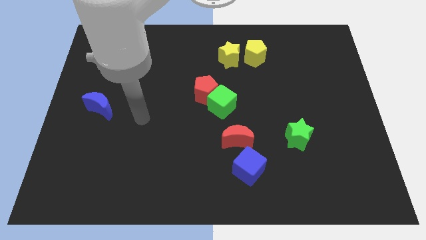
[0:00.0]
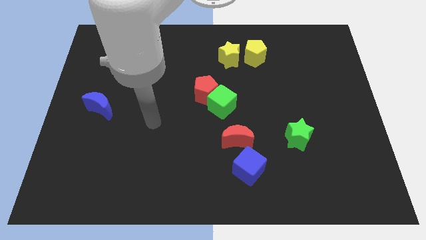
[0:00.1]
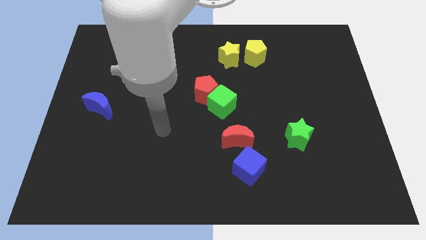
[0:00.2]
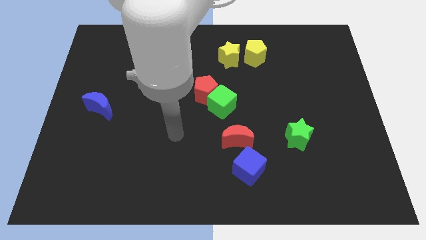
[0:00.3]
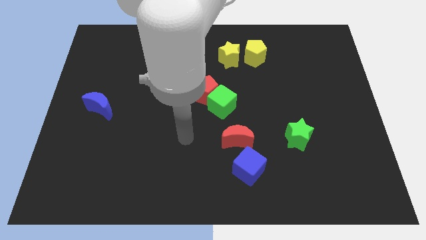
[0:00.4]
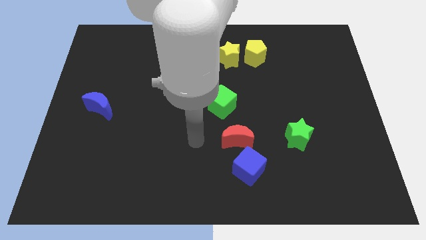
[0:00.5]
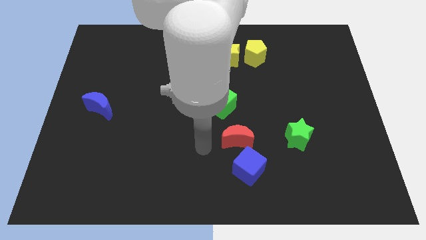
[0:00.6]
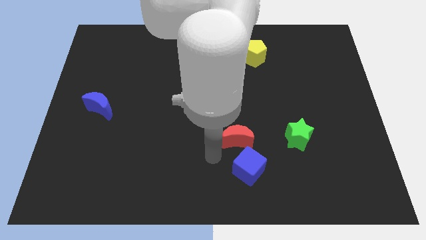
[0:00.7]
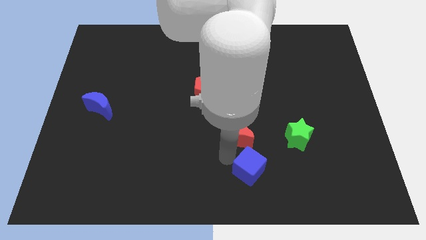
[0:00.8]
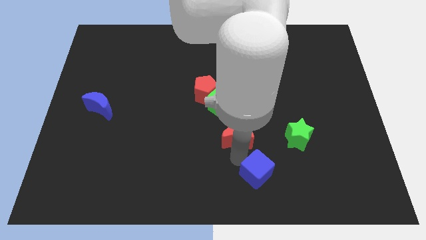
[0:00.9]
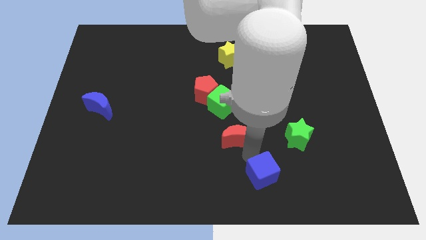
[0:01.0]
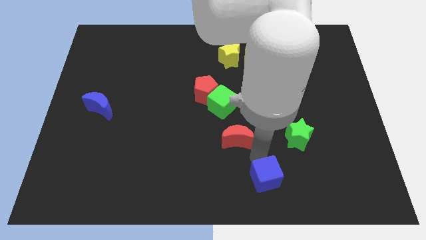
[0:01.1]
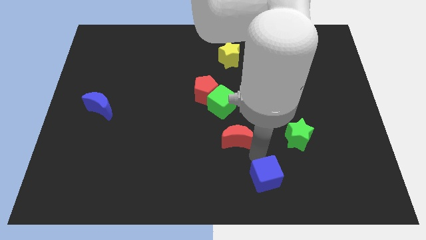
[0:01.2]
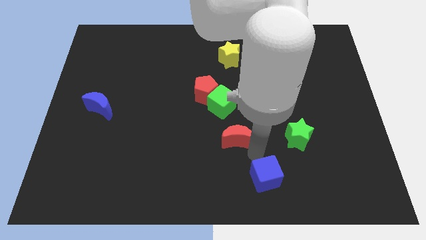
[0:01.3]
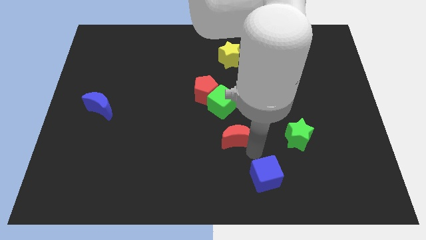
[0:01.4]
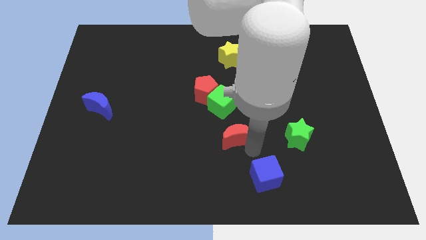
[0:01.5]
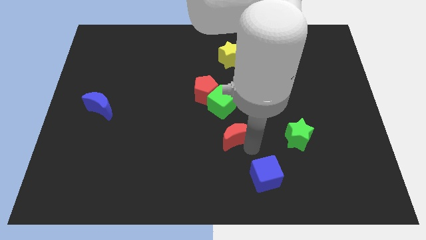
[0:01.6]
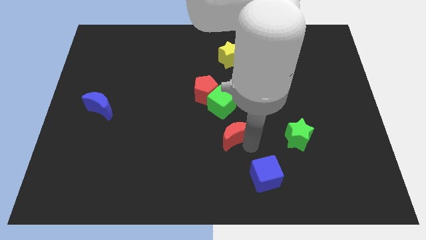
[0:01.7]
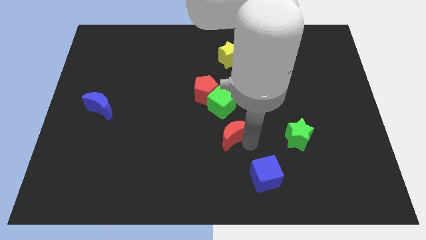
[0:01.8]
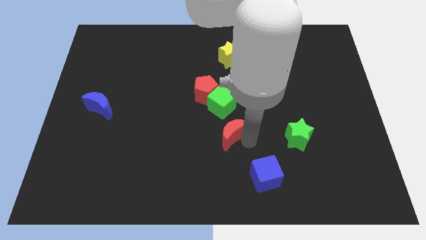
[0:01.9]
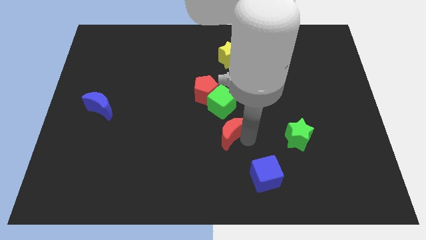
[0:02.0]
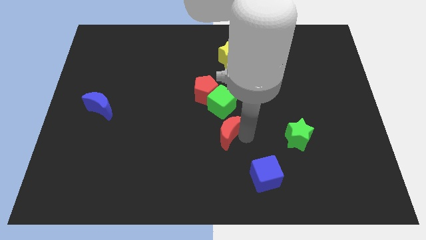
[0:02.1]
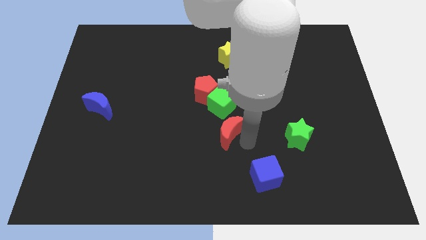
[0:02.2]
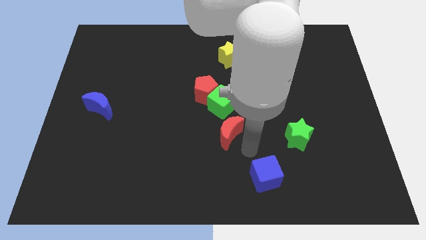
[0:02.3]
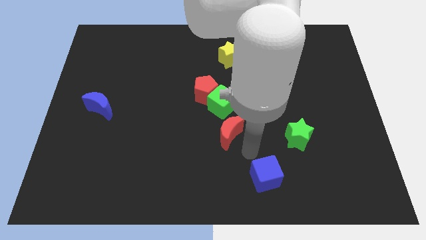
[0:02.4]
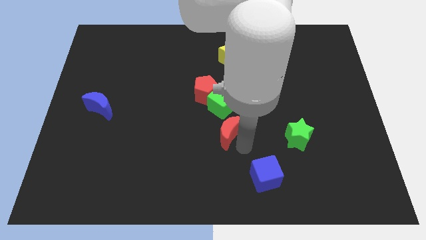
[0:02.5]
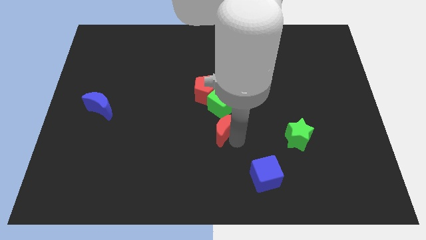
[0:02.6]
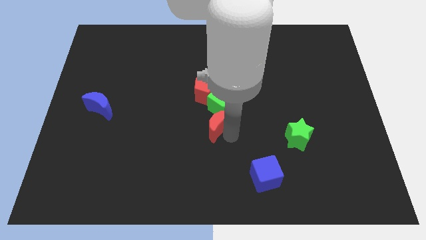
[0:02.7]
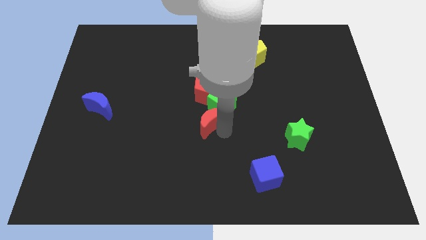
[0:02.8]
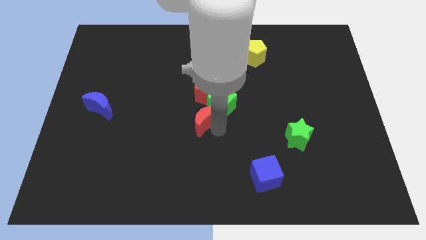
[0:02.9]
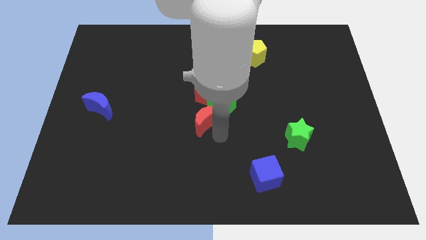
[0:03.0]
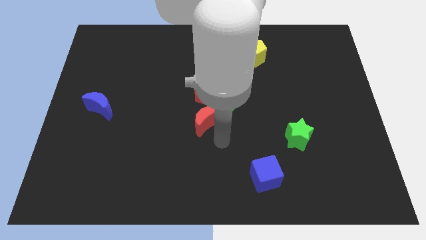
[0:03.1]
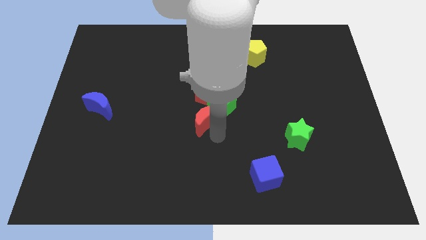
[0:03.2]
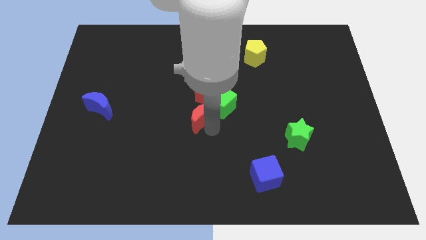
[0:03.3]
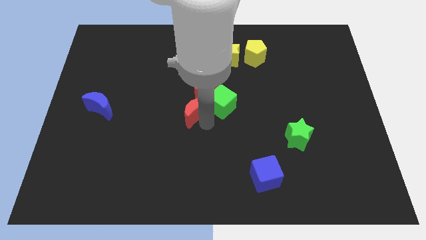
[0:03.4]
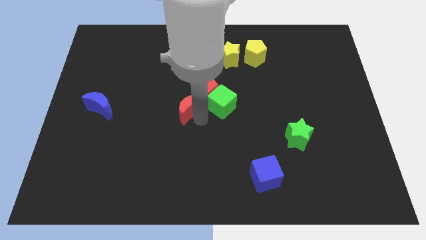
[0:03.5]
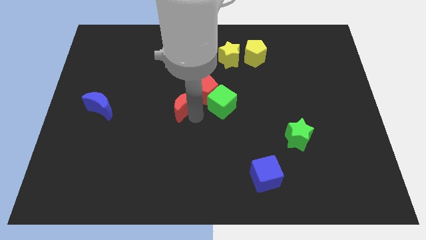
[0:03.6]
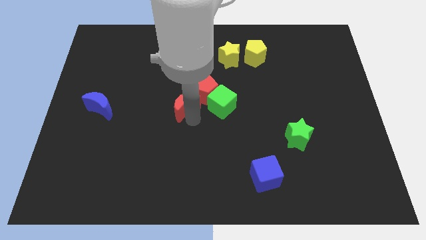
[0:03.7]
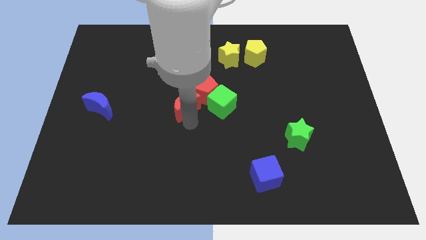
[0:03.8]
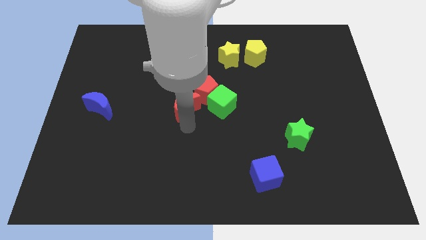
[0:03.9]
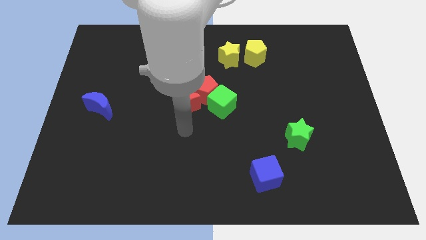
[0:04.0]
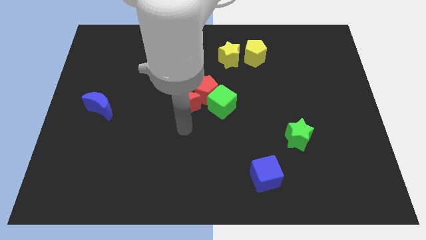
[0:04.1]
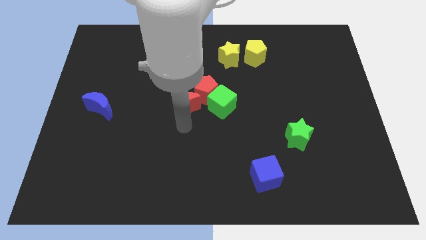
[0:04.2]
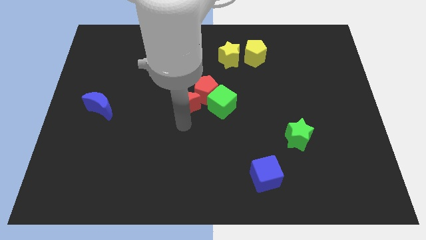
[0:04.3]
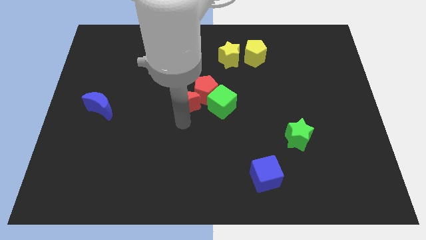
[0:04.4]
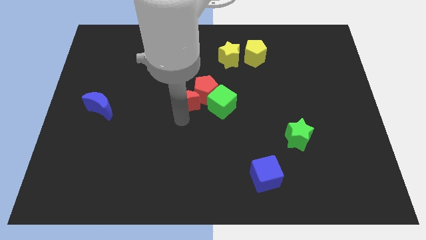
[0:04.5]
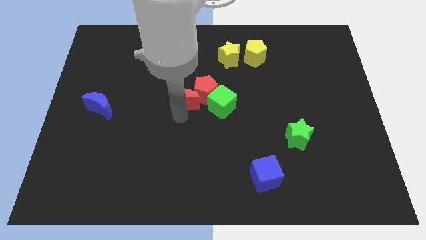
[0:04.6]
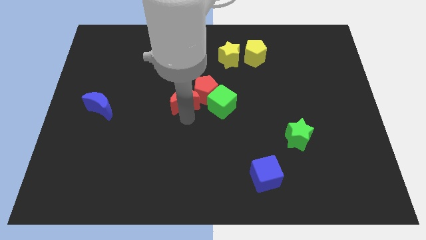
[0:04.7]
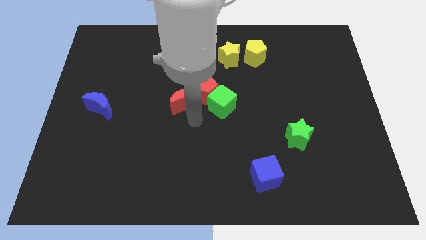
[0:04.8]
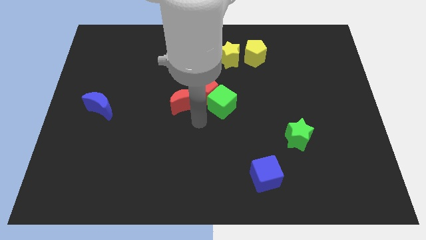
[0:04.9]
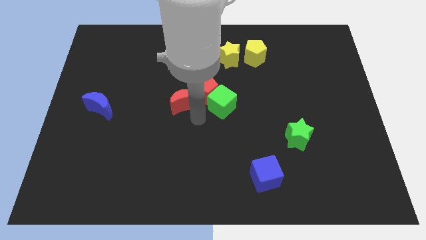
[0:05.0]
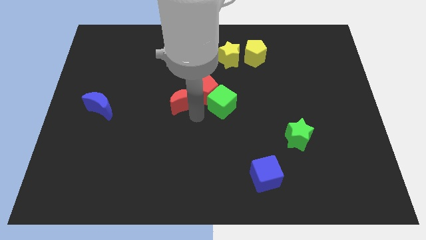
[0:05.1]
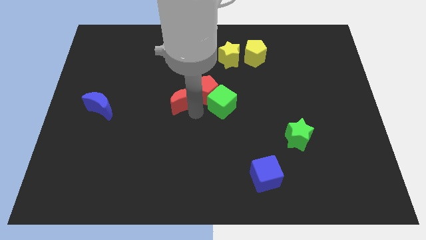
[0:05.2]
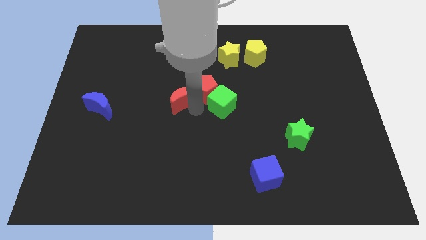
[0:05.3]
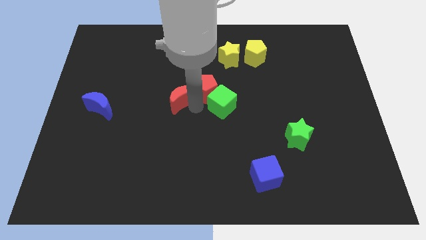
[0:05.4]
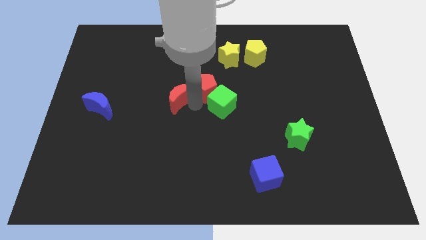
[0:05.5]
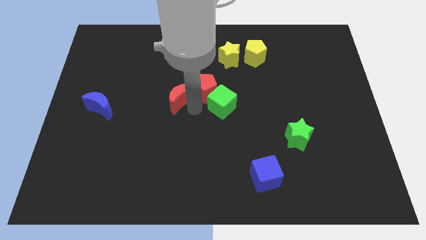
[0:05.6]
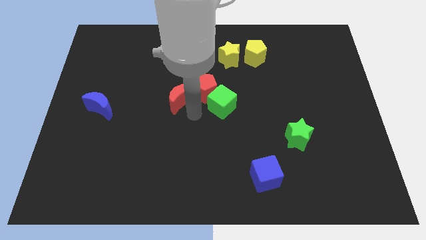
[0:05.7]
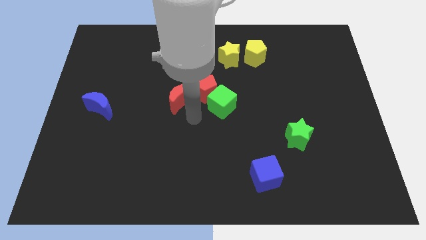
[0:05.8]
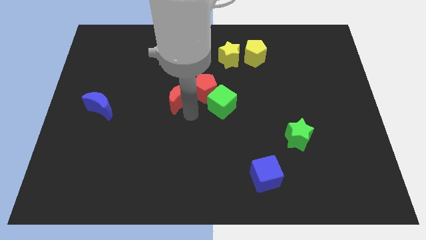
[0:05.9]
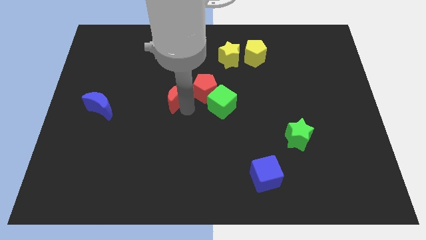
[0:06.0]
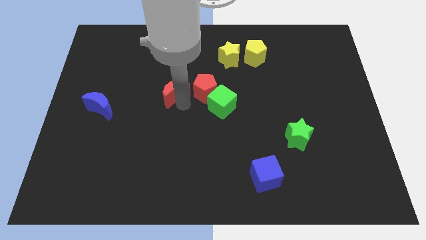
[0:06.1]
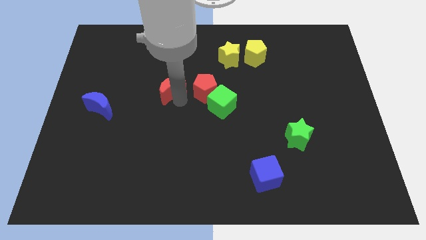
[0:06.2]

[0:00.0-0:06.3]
move the red moon upwards and then to the left

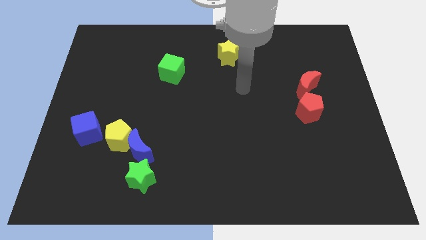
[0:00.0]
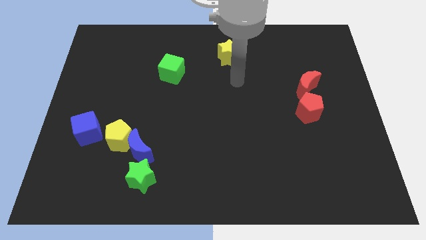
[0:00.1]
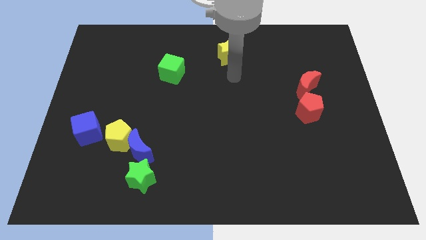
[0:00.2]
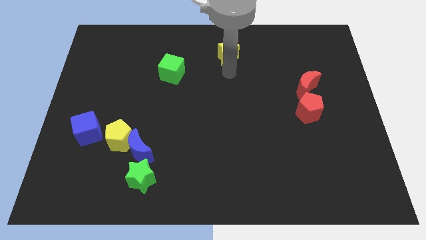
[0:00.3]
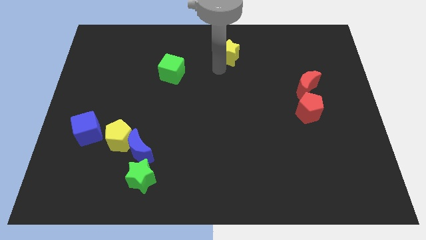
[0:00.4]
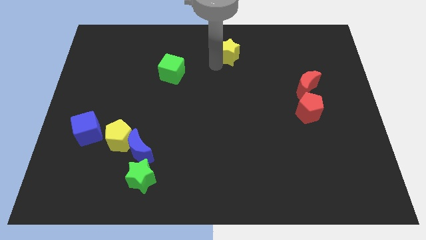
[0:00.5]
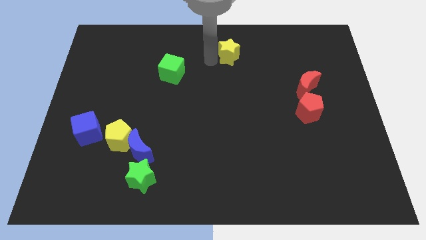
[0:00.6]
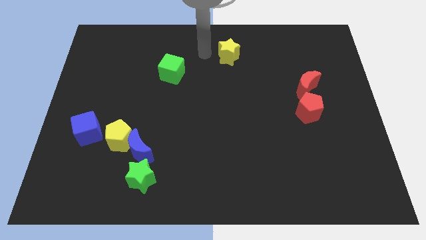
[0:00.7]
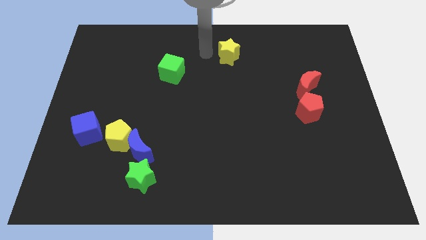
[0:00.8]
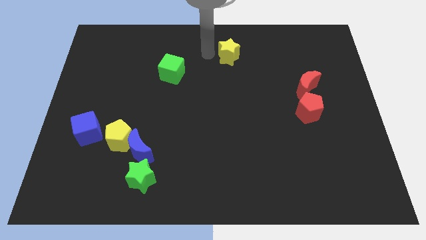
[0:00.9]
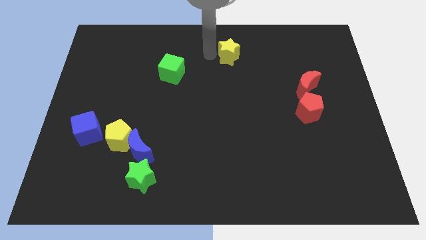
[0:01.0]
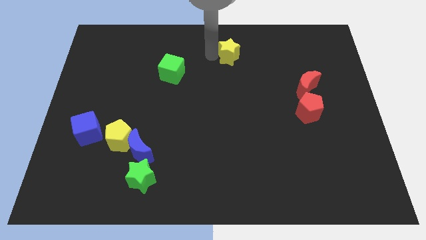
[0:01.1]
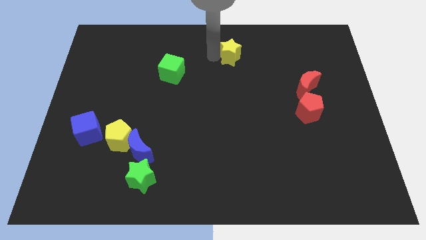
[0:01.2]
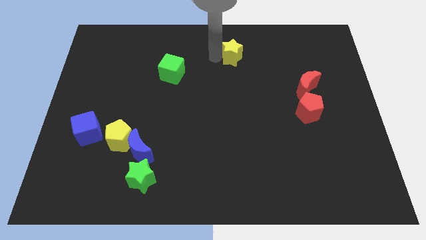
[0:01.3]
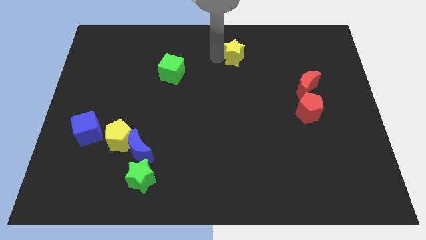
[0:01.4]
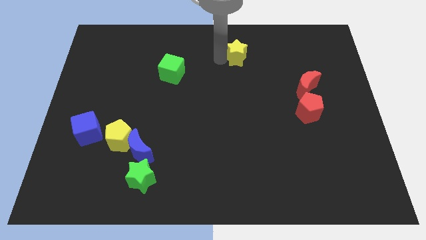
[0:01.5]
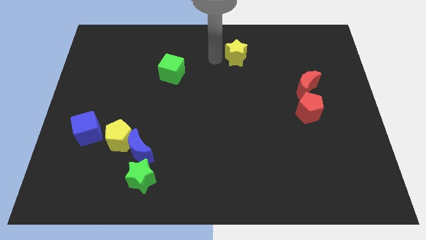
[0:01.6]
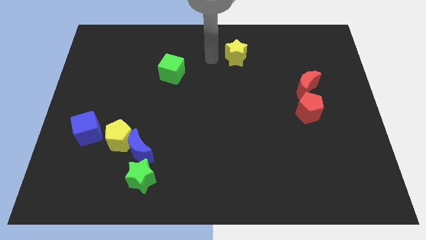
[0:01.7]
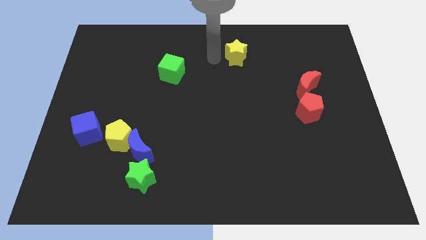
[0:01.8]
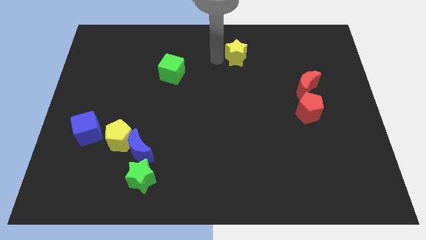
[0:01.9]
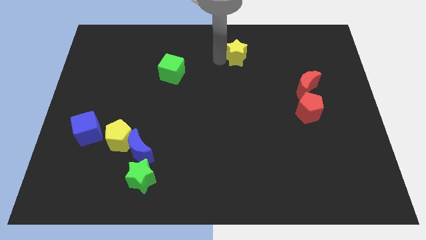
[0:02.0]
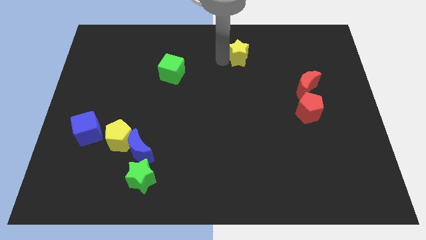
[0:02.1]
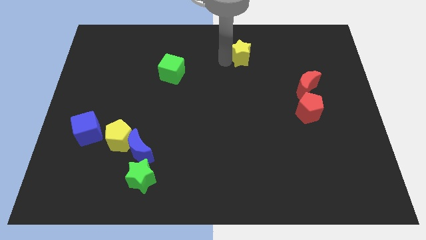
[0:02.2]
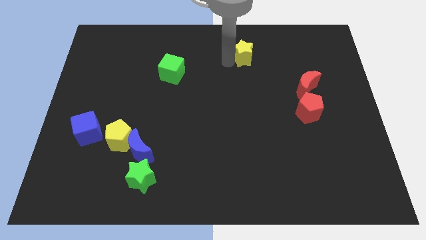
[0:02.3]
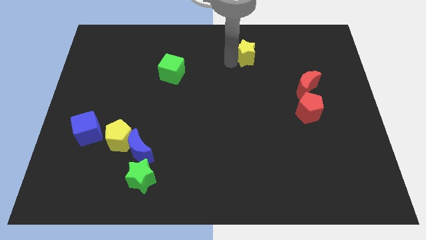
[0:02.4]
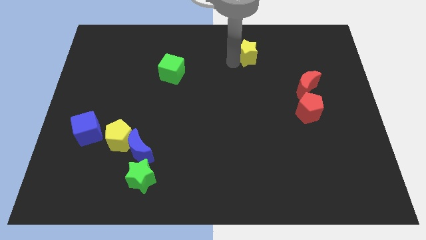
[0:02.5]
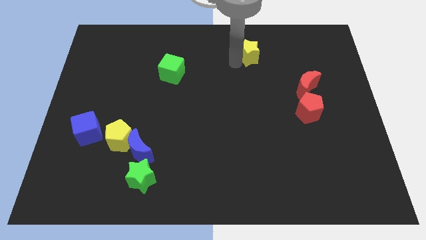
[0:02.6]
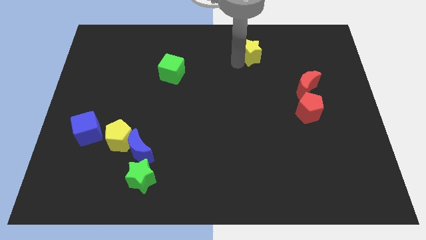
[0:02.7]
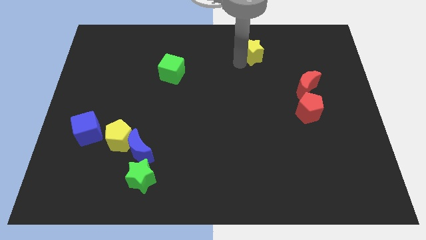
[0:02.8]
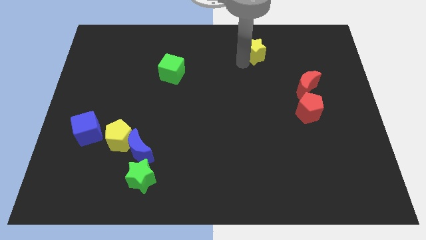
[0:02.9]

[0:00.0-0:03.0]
slide the yellow star to the right a little bit
